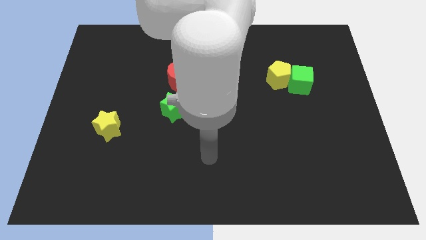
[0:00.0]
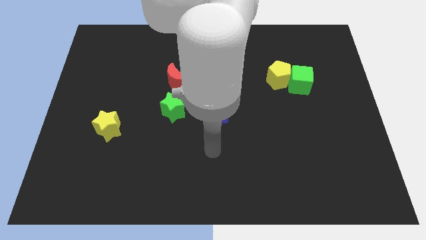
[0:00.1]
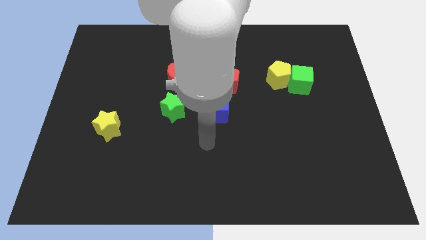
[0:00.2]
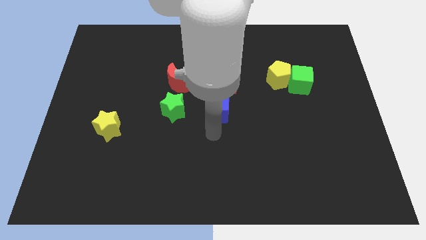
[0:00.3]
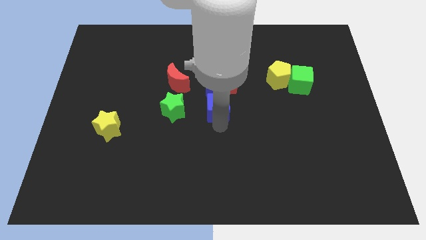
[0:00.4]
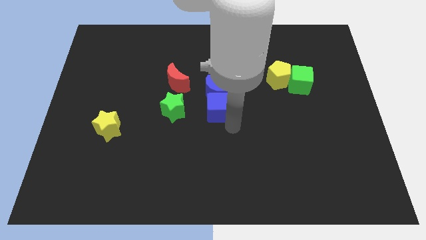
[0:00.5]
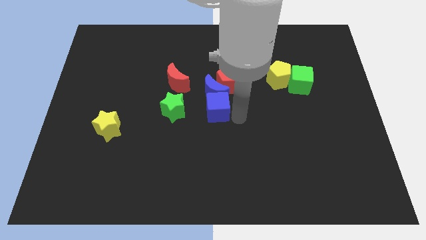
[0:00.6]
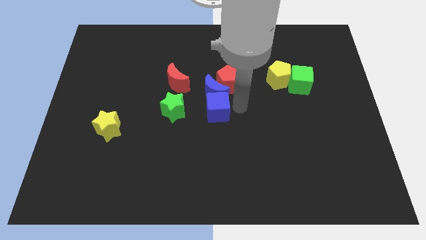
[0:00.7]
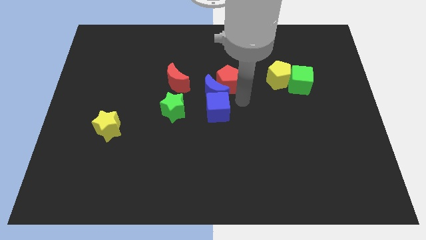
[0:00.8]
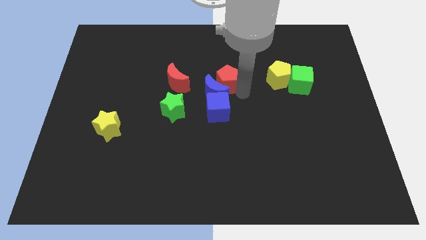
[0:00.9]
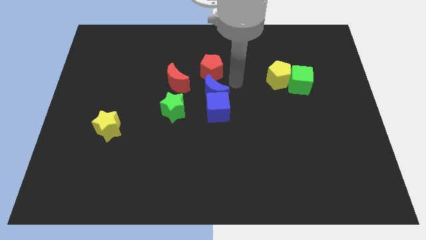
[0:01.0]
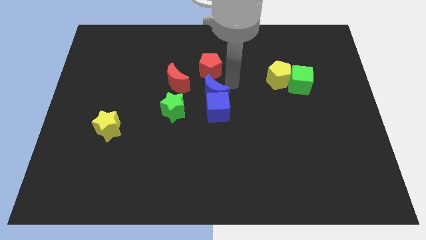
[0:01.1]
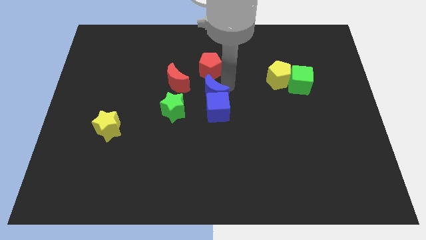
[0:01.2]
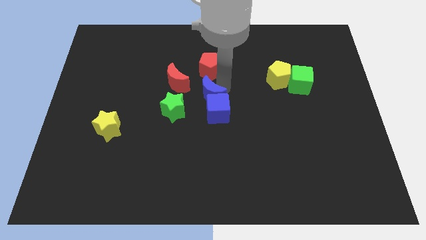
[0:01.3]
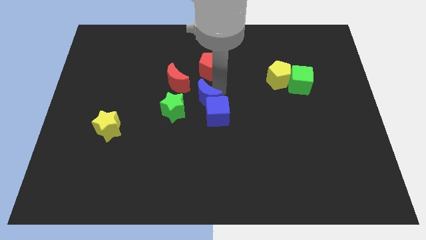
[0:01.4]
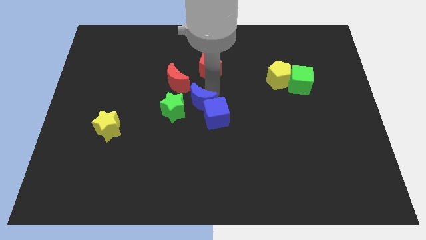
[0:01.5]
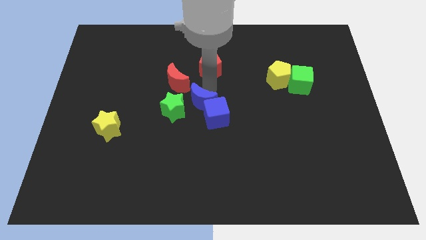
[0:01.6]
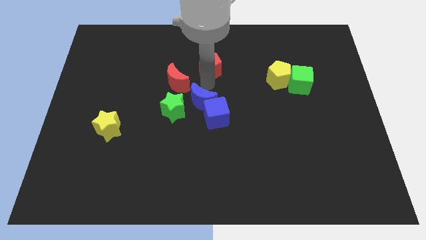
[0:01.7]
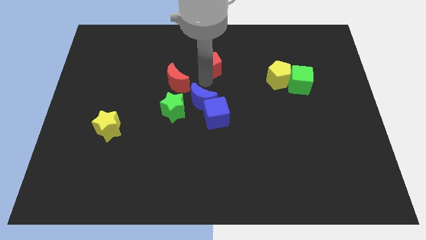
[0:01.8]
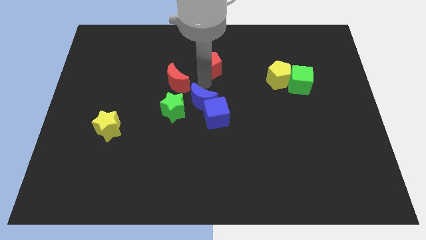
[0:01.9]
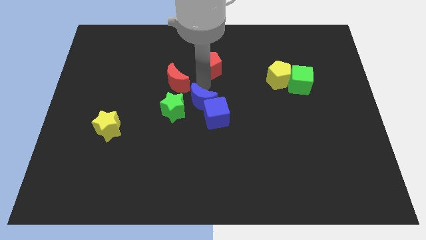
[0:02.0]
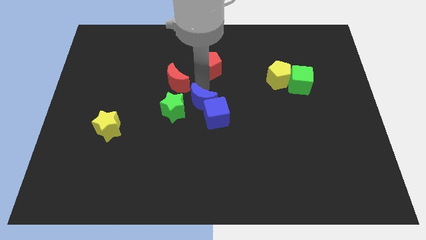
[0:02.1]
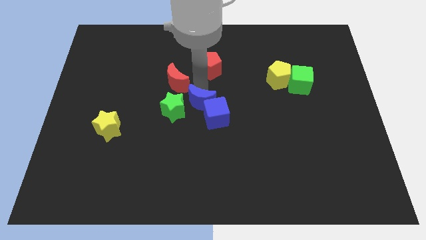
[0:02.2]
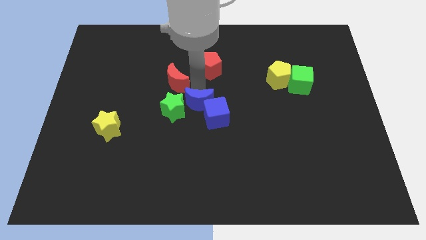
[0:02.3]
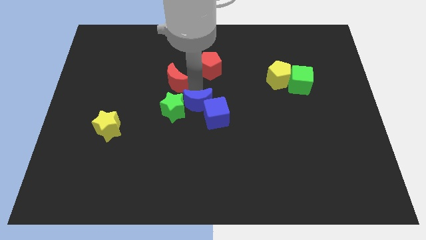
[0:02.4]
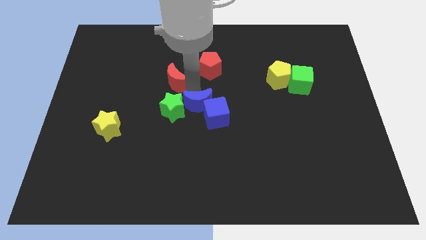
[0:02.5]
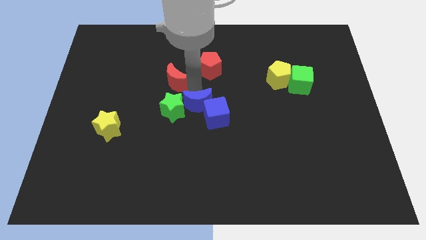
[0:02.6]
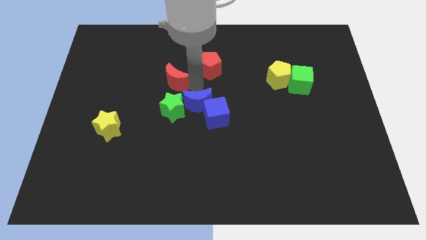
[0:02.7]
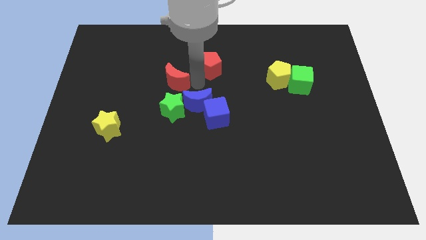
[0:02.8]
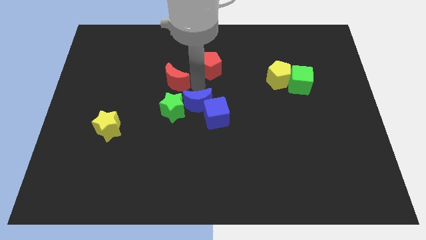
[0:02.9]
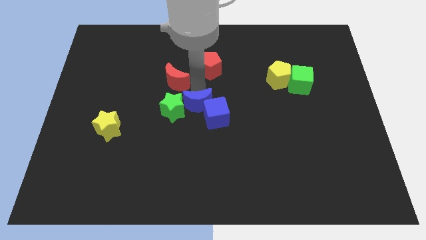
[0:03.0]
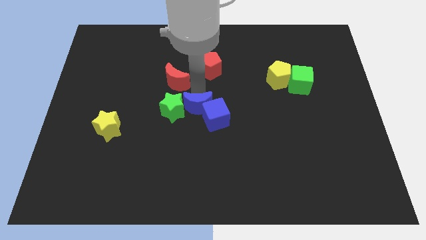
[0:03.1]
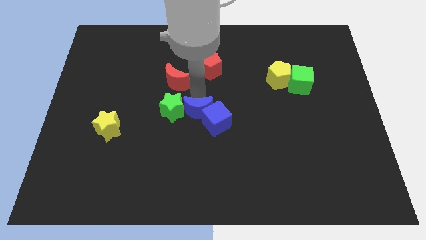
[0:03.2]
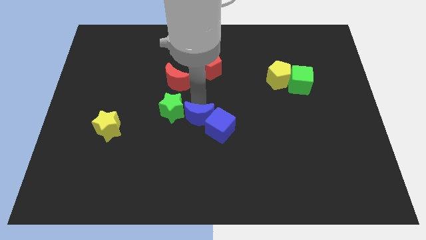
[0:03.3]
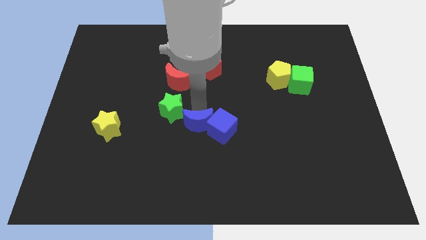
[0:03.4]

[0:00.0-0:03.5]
push the blue moon downwards somewhat

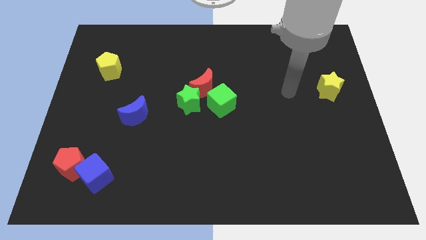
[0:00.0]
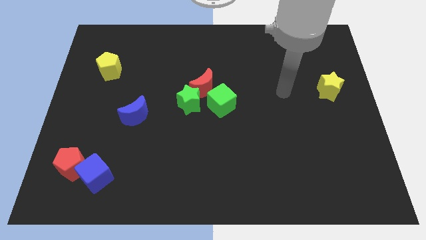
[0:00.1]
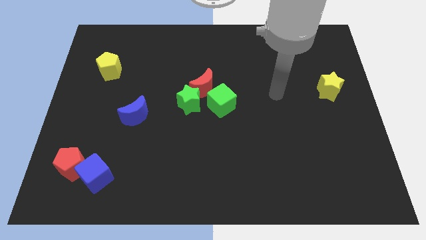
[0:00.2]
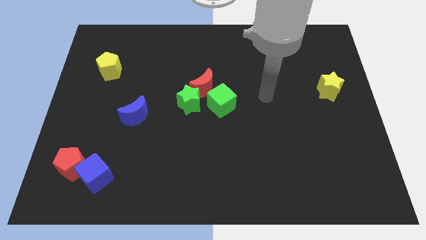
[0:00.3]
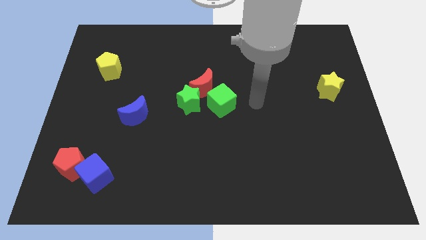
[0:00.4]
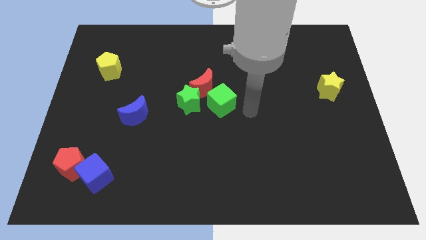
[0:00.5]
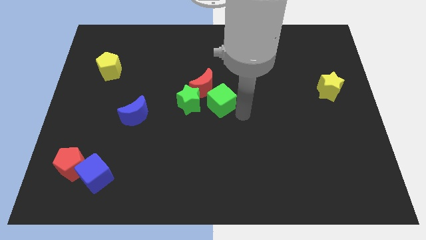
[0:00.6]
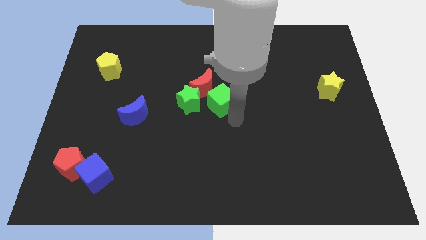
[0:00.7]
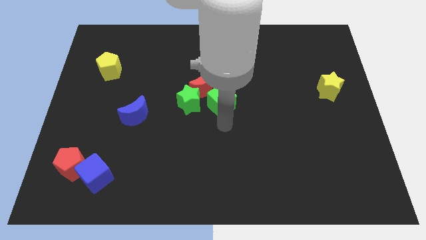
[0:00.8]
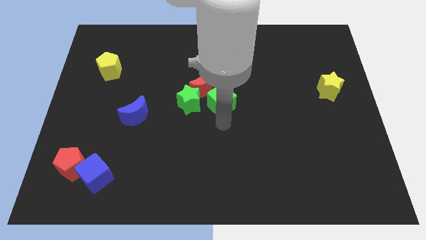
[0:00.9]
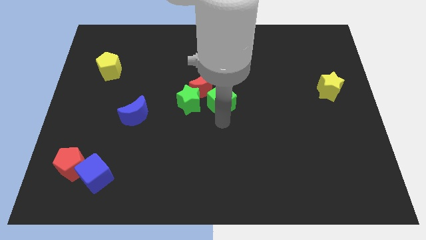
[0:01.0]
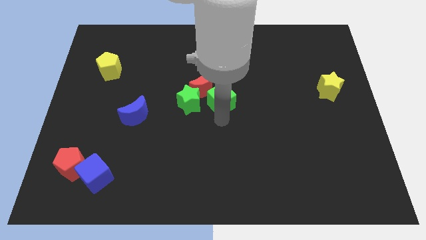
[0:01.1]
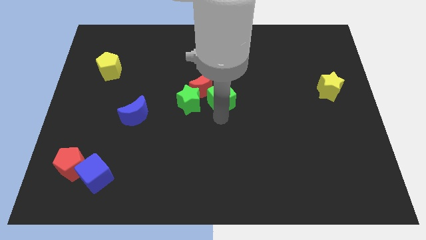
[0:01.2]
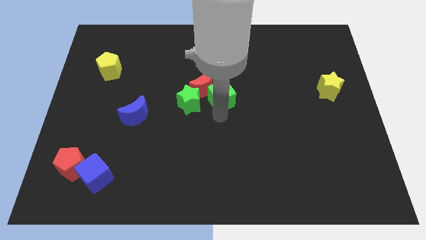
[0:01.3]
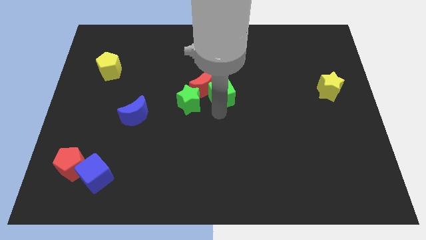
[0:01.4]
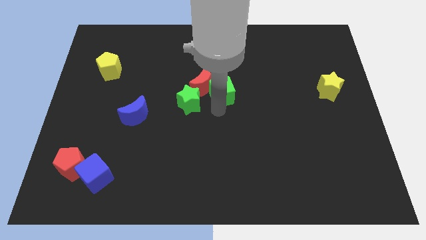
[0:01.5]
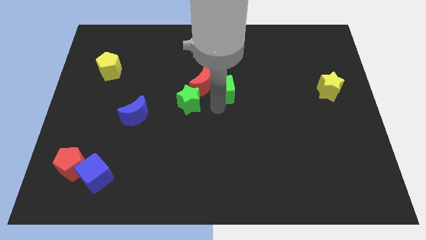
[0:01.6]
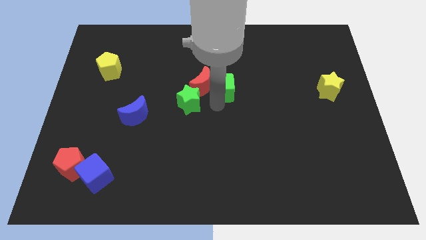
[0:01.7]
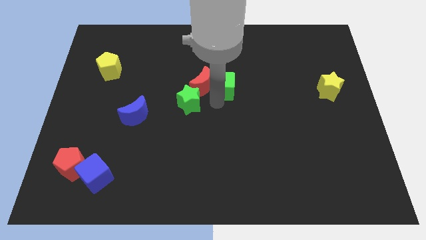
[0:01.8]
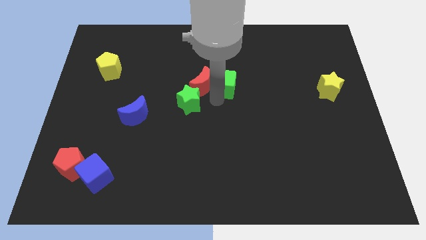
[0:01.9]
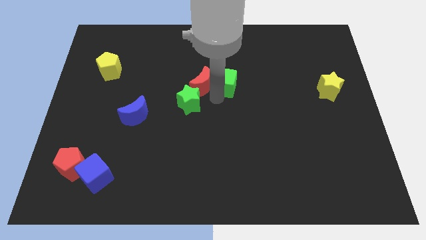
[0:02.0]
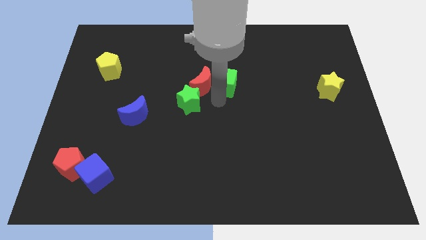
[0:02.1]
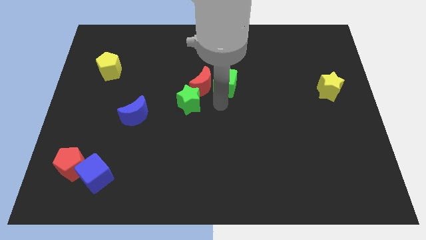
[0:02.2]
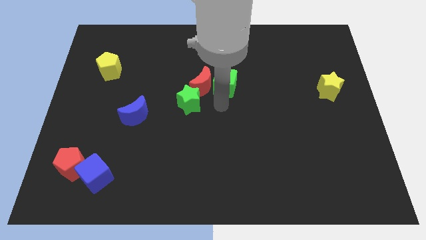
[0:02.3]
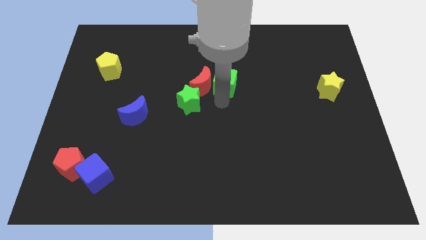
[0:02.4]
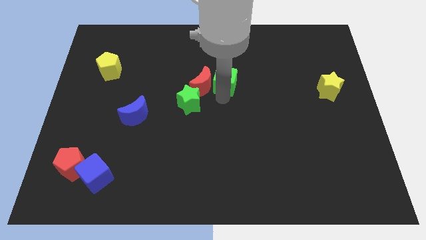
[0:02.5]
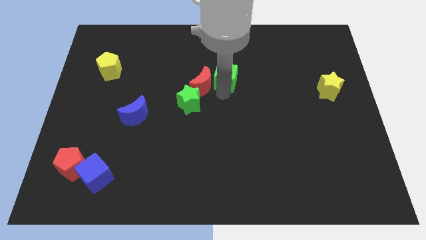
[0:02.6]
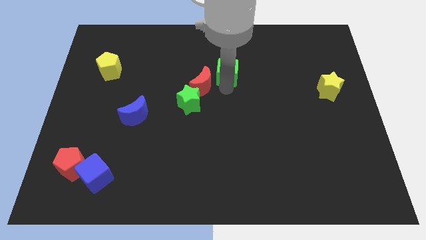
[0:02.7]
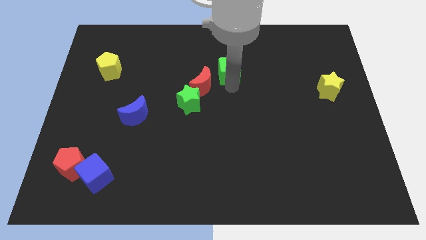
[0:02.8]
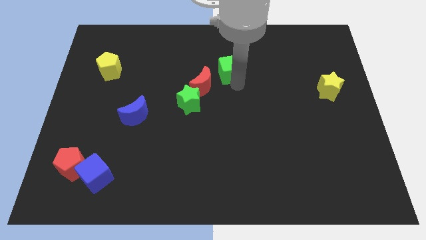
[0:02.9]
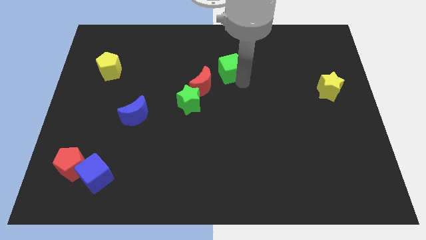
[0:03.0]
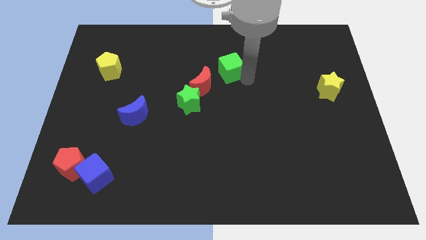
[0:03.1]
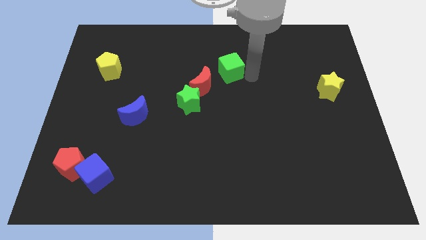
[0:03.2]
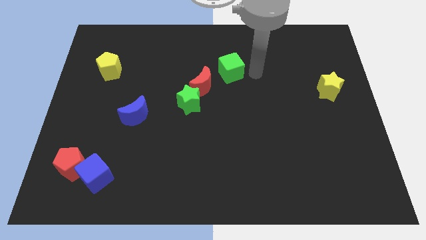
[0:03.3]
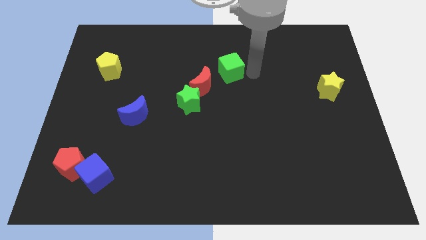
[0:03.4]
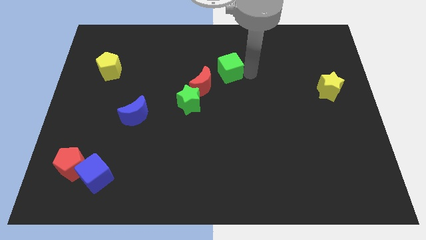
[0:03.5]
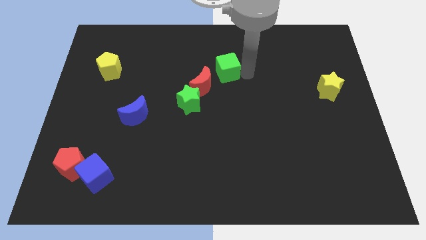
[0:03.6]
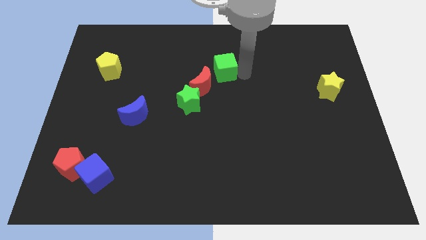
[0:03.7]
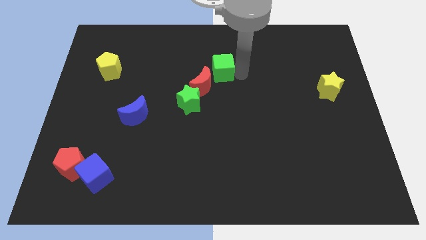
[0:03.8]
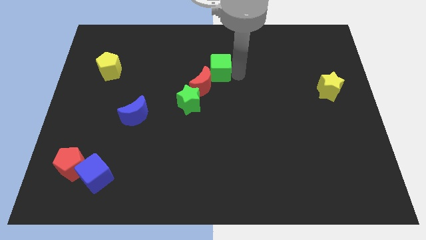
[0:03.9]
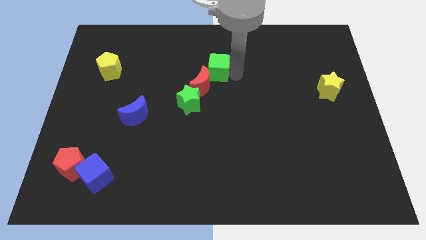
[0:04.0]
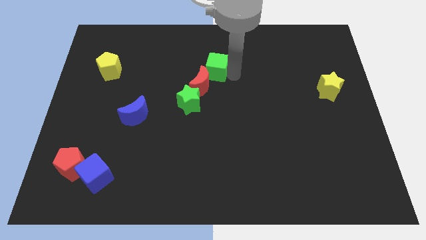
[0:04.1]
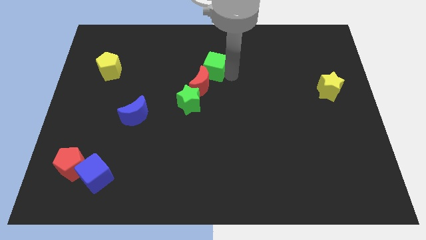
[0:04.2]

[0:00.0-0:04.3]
move the green cube diagonally upwards and left a little bit
